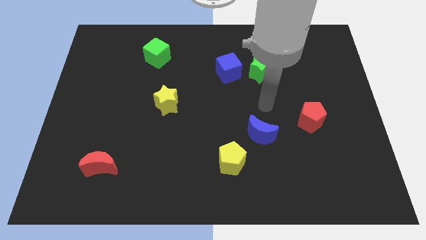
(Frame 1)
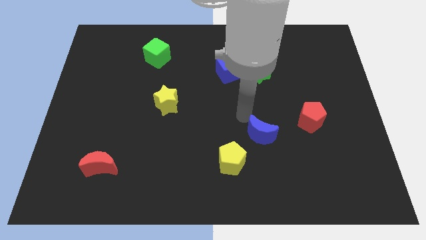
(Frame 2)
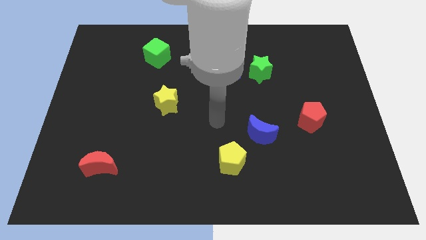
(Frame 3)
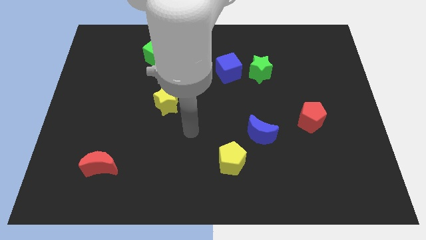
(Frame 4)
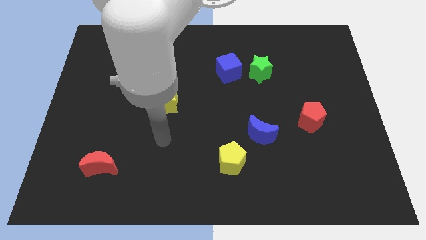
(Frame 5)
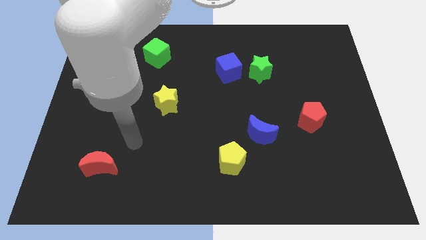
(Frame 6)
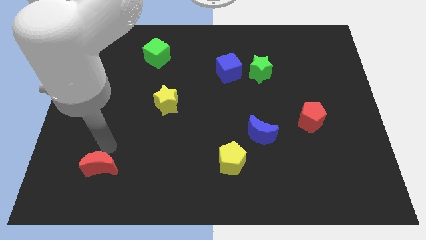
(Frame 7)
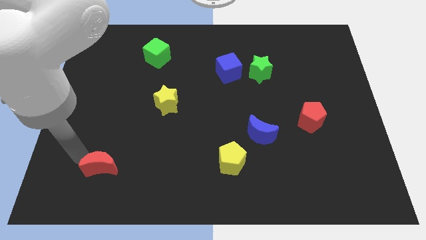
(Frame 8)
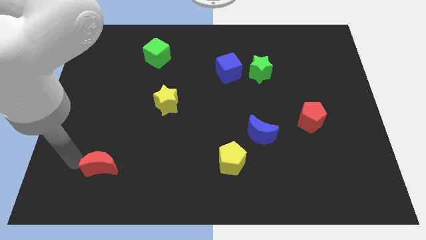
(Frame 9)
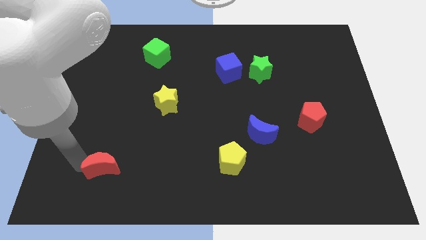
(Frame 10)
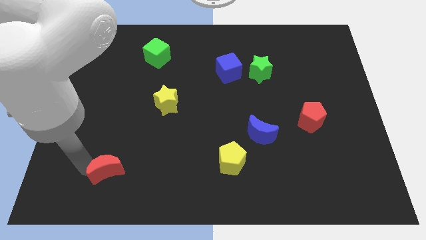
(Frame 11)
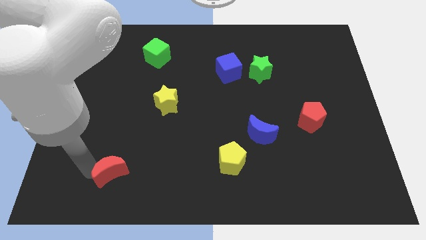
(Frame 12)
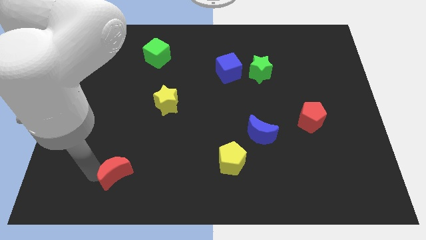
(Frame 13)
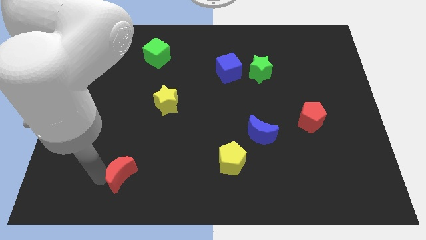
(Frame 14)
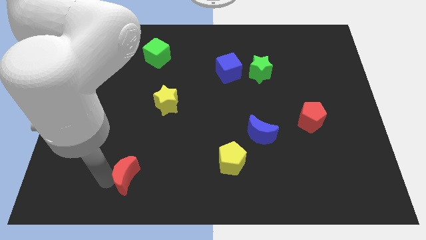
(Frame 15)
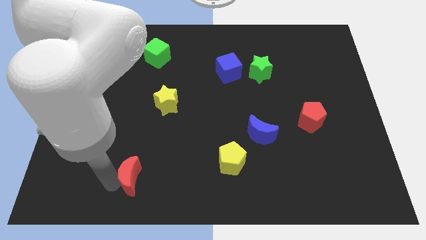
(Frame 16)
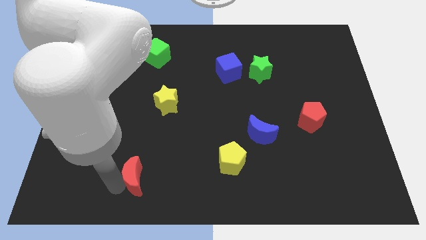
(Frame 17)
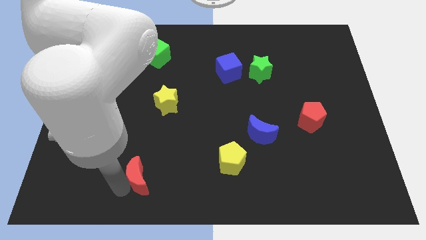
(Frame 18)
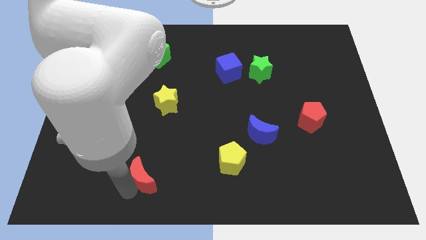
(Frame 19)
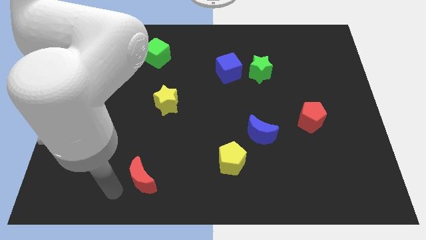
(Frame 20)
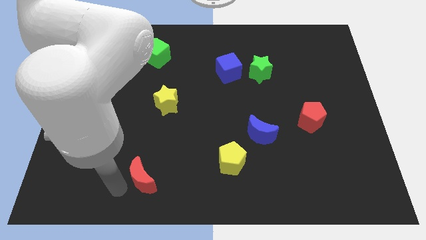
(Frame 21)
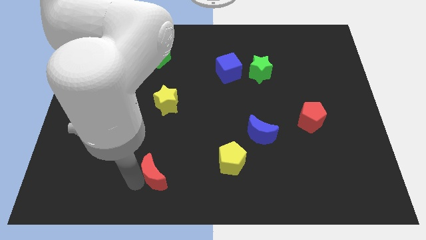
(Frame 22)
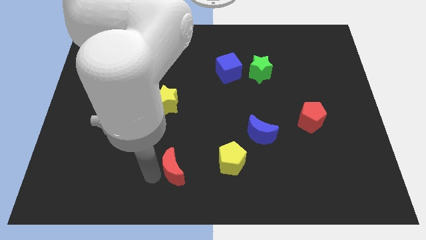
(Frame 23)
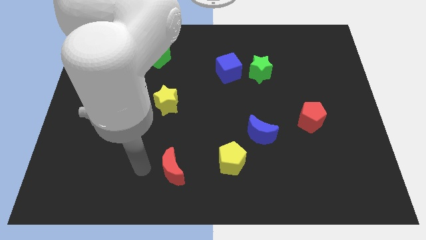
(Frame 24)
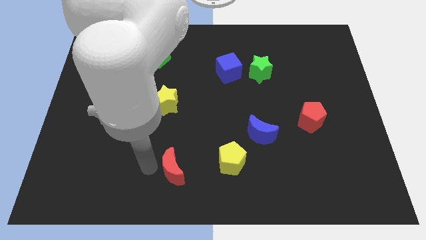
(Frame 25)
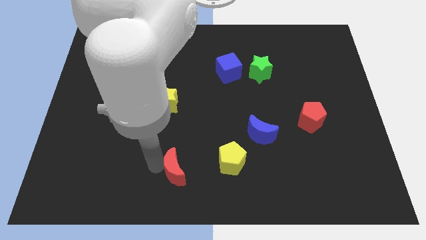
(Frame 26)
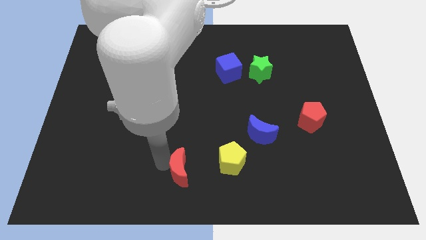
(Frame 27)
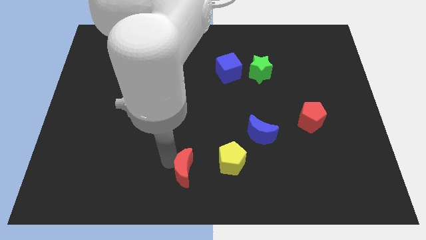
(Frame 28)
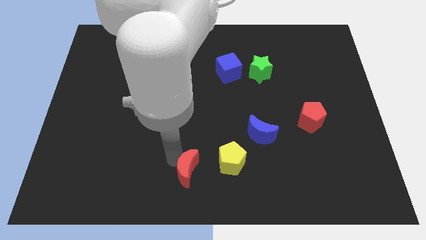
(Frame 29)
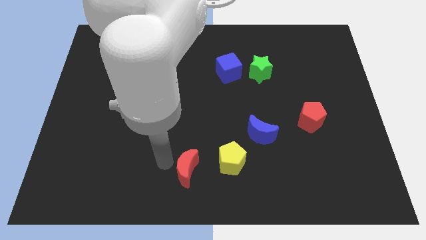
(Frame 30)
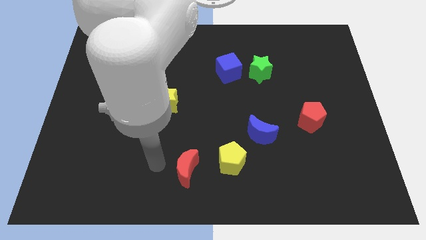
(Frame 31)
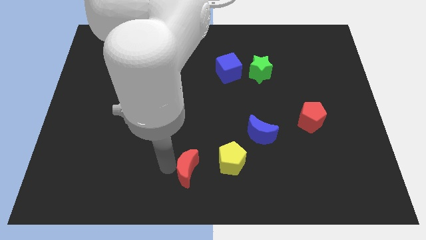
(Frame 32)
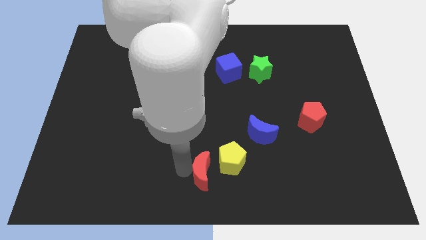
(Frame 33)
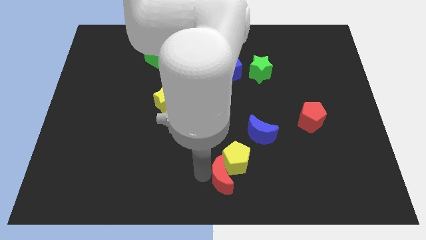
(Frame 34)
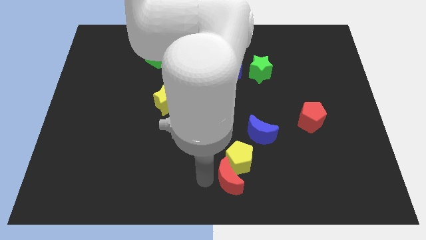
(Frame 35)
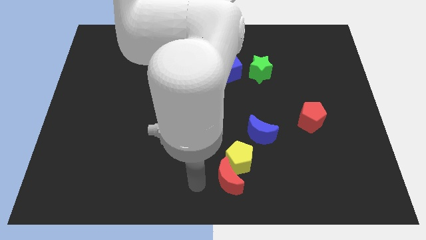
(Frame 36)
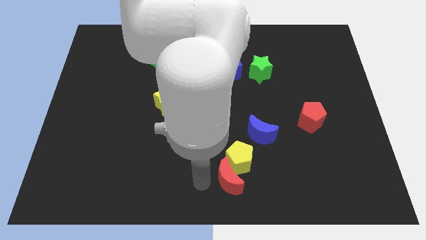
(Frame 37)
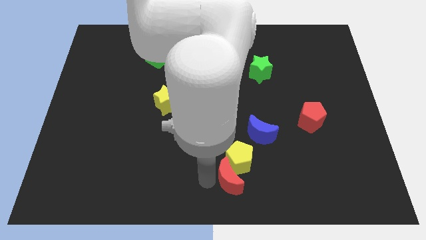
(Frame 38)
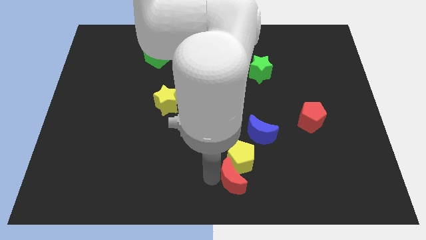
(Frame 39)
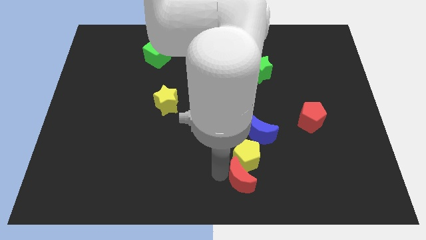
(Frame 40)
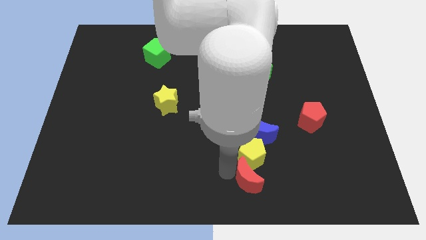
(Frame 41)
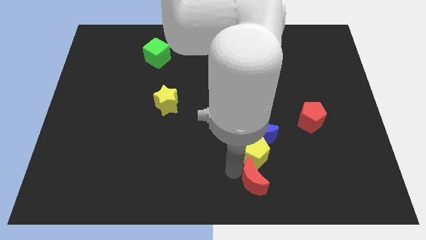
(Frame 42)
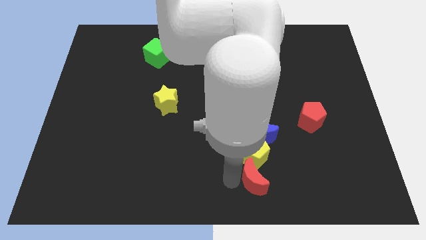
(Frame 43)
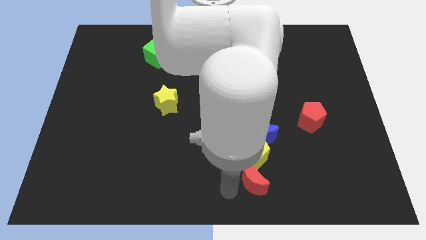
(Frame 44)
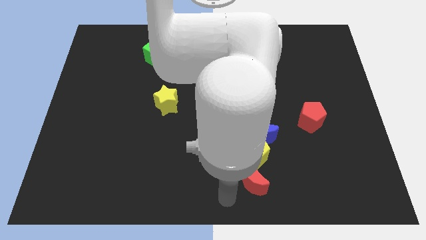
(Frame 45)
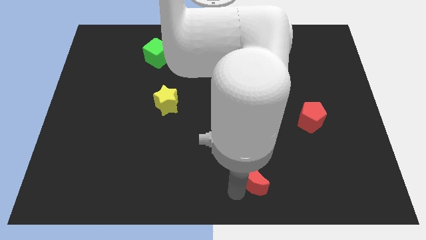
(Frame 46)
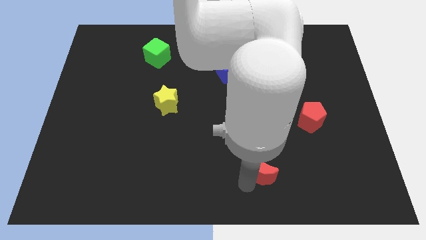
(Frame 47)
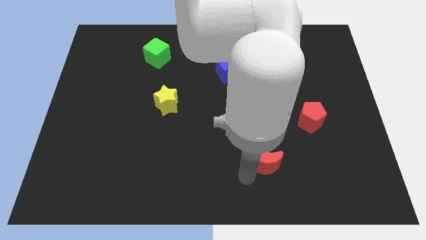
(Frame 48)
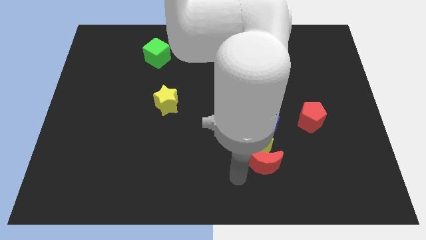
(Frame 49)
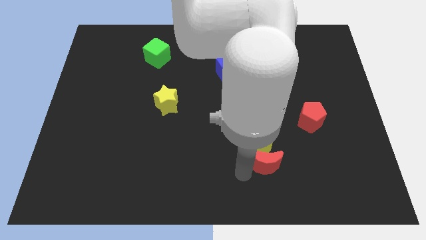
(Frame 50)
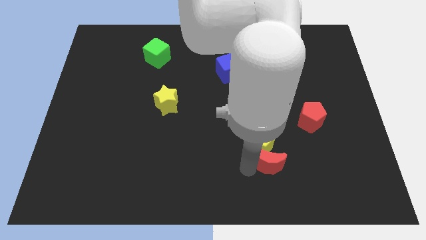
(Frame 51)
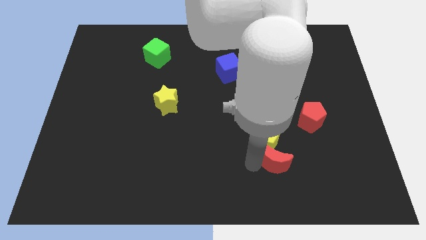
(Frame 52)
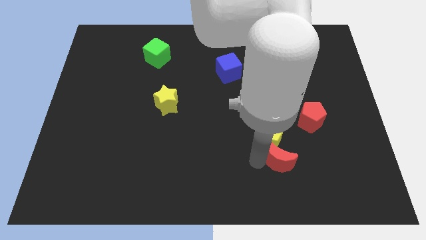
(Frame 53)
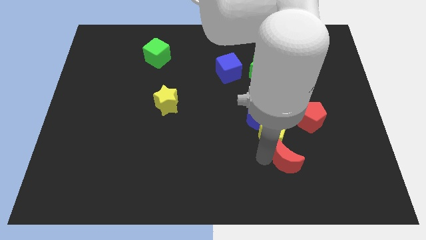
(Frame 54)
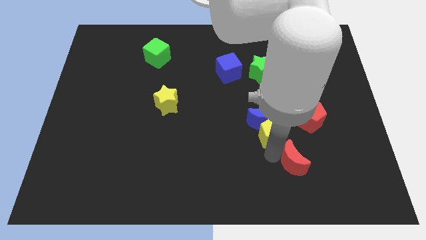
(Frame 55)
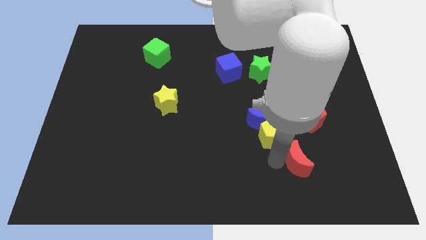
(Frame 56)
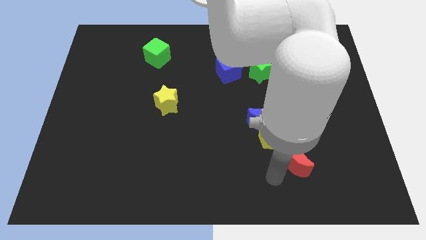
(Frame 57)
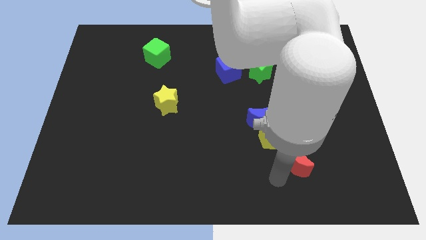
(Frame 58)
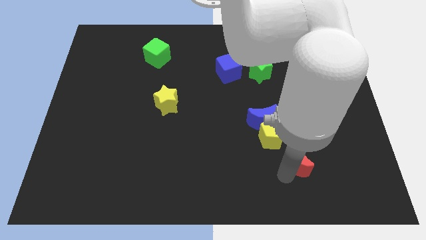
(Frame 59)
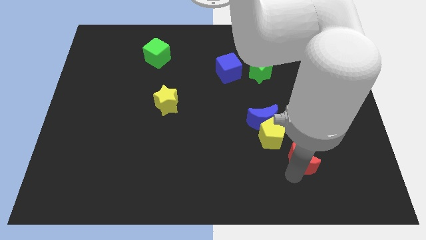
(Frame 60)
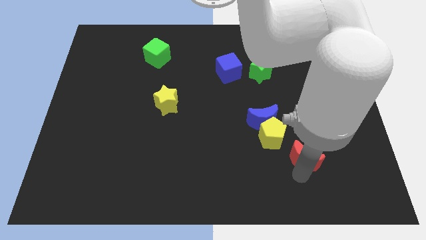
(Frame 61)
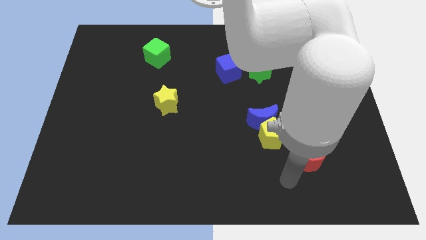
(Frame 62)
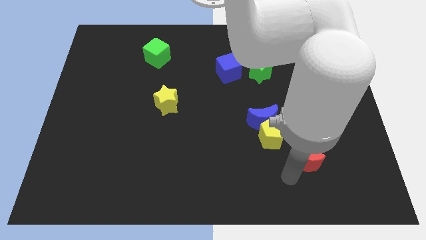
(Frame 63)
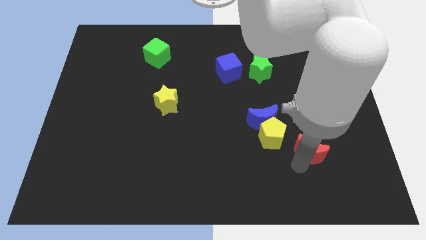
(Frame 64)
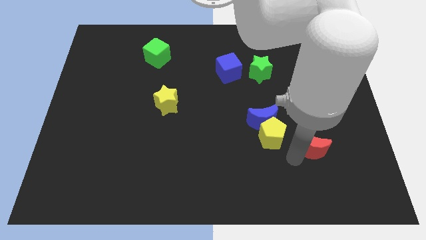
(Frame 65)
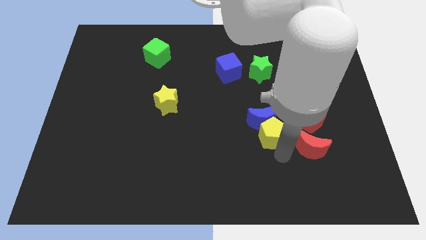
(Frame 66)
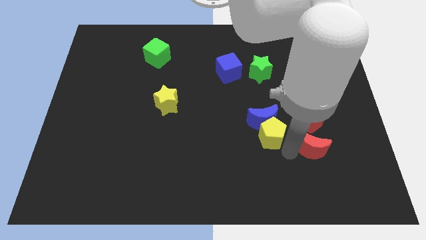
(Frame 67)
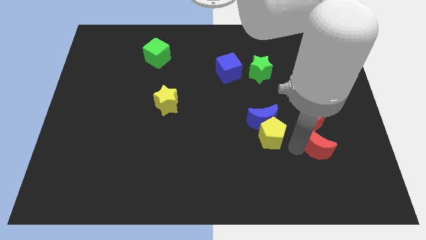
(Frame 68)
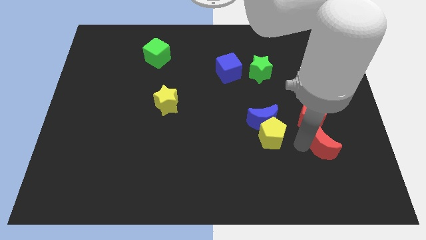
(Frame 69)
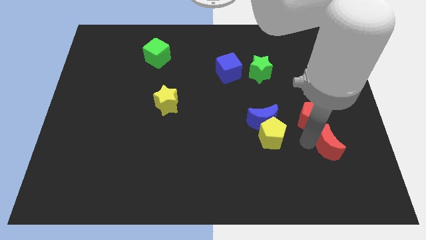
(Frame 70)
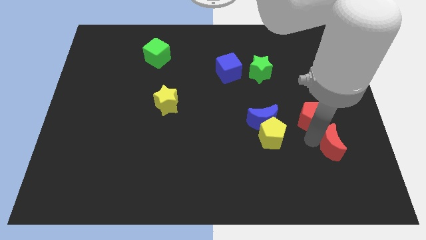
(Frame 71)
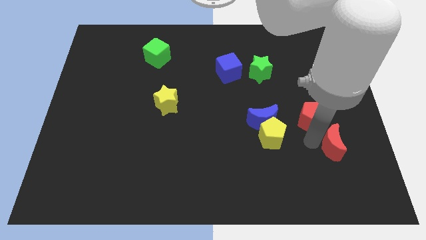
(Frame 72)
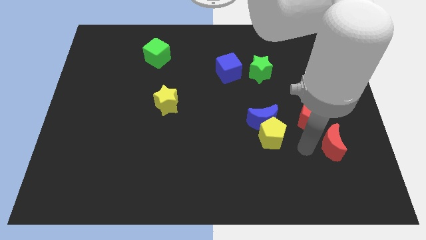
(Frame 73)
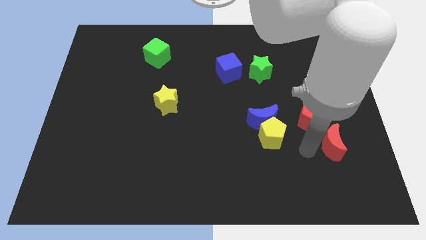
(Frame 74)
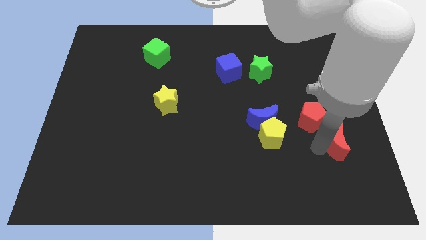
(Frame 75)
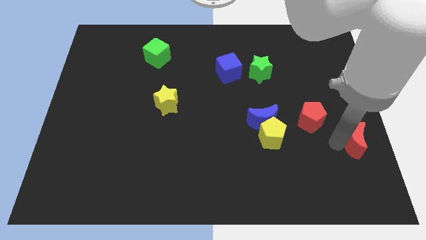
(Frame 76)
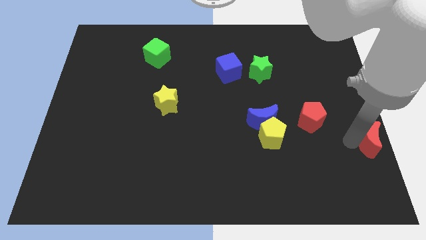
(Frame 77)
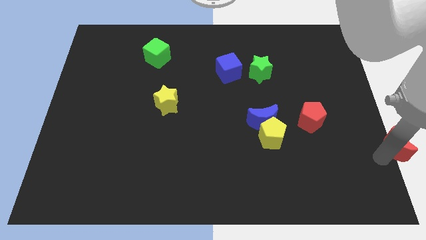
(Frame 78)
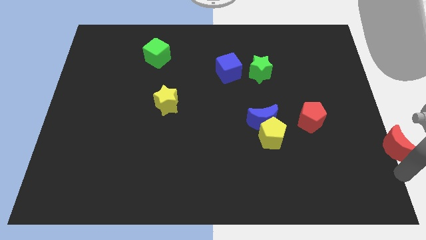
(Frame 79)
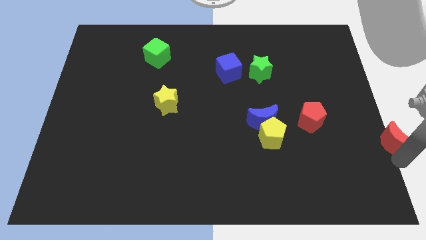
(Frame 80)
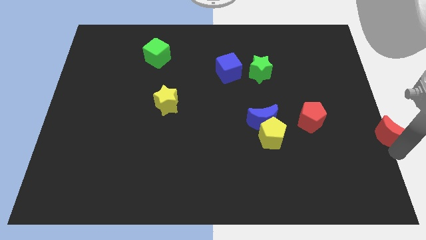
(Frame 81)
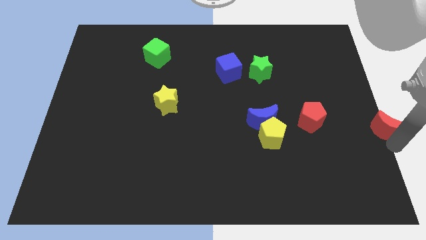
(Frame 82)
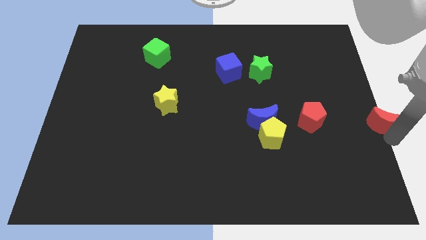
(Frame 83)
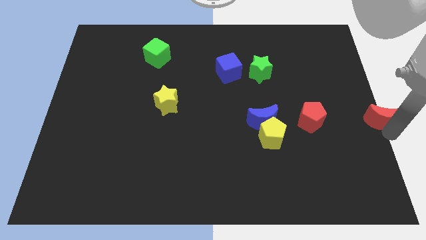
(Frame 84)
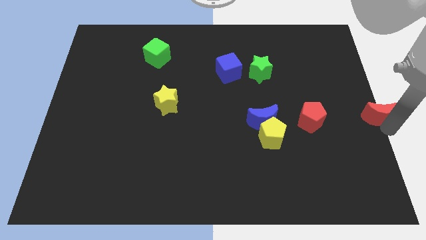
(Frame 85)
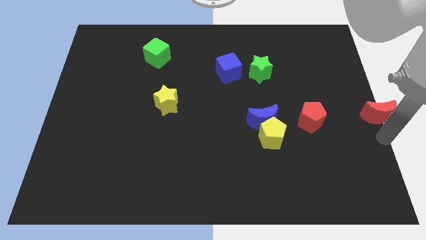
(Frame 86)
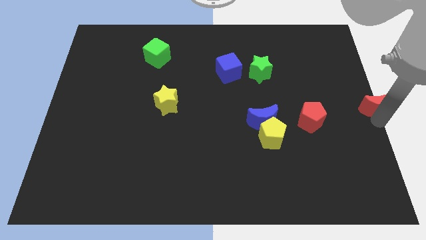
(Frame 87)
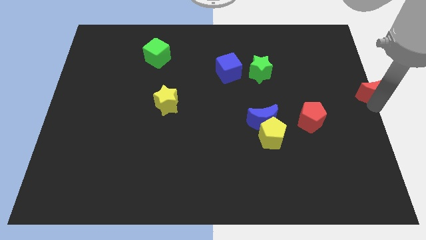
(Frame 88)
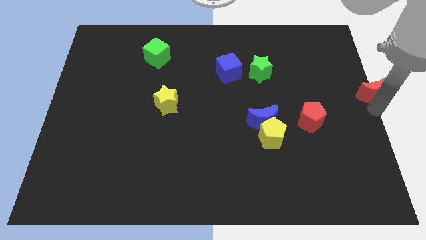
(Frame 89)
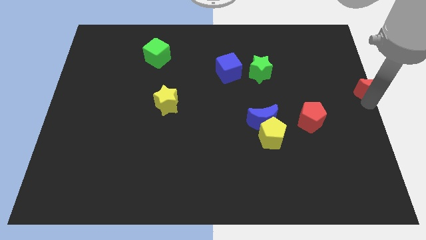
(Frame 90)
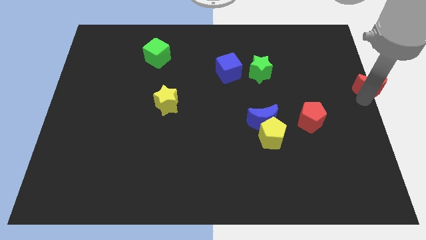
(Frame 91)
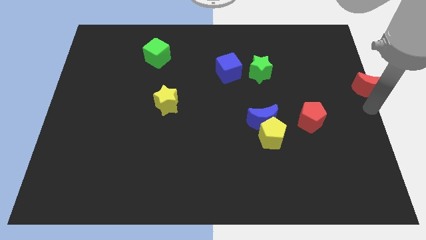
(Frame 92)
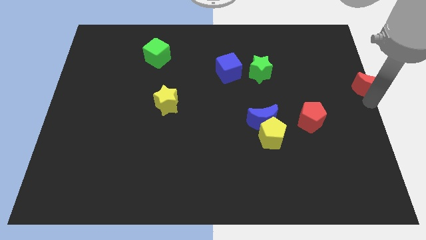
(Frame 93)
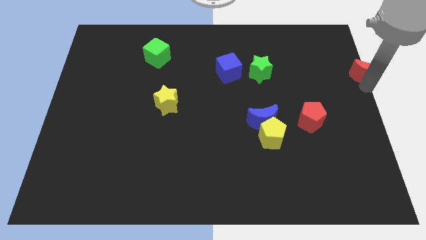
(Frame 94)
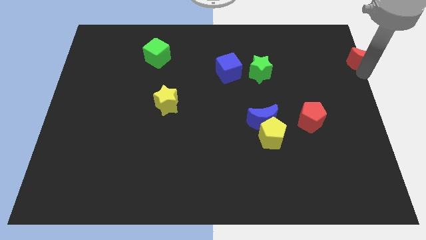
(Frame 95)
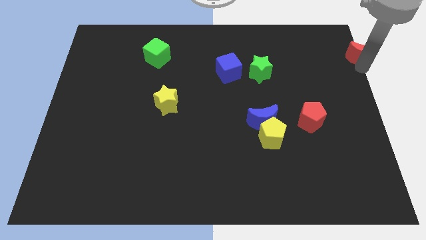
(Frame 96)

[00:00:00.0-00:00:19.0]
put the red moon to the upper right corner
